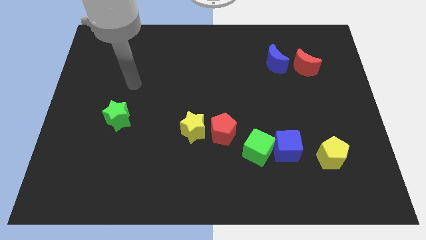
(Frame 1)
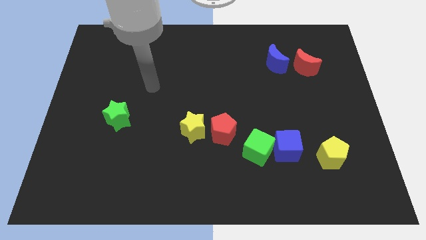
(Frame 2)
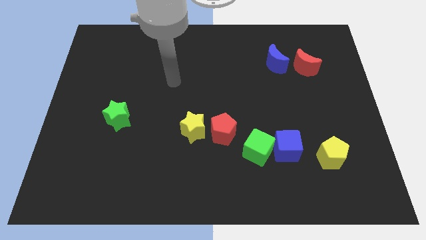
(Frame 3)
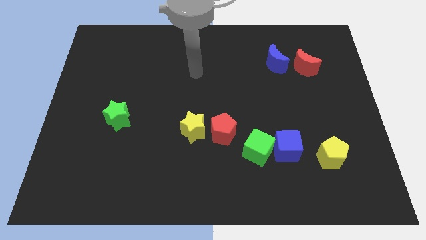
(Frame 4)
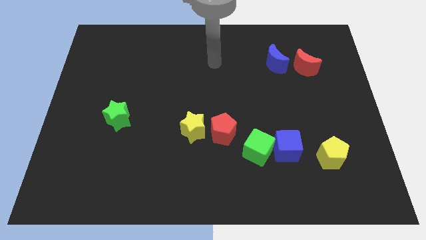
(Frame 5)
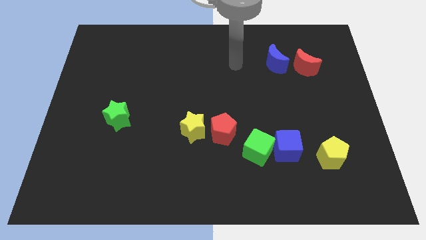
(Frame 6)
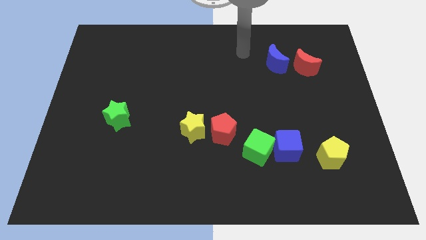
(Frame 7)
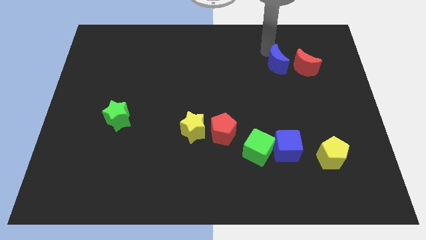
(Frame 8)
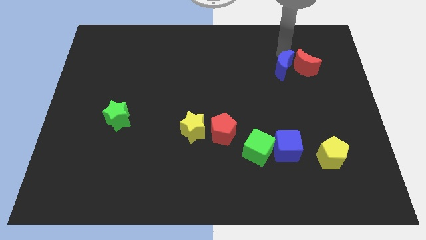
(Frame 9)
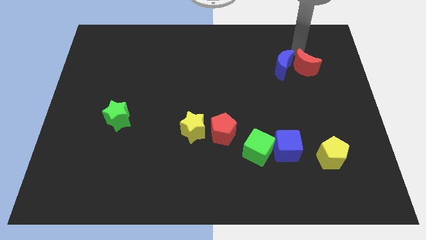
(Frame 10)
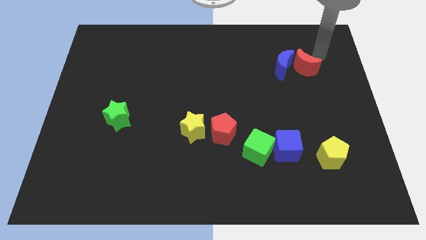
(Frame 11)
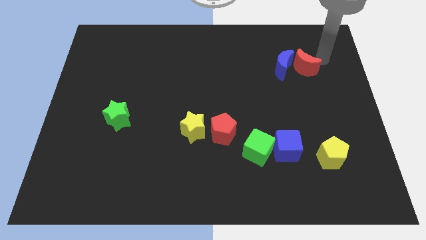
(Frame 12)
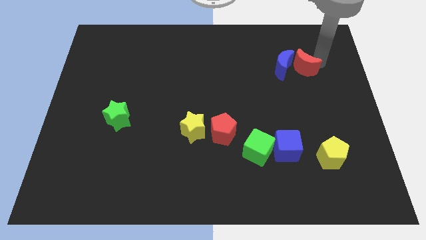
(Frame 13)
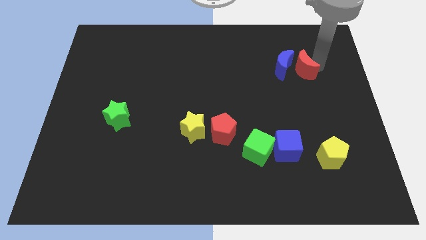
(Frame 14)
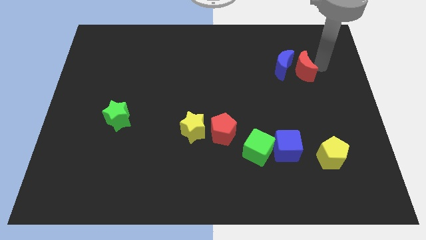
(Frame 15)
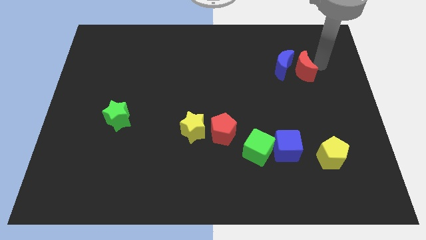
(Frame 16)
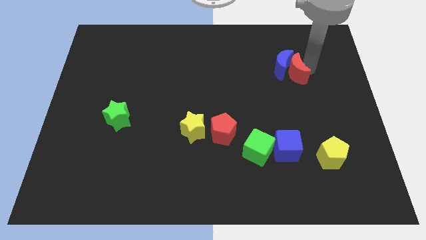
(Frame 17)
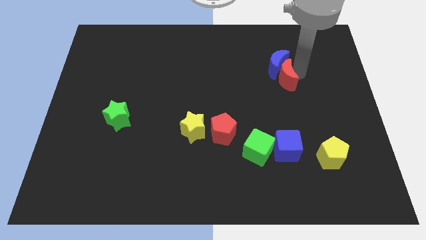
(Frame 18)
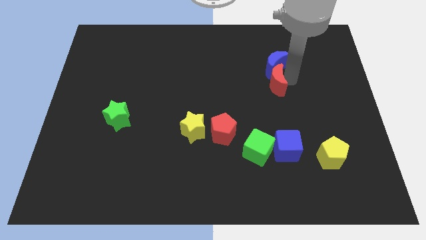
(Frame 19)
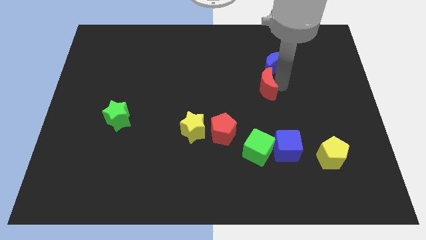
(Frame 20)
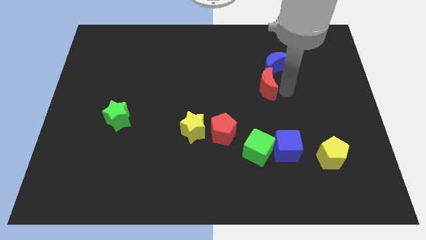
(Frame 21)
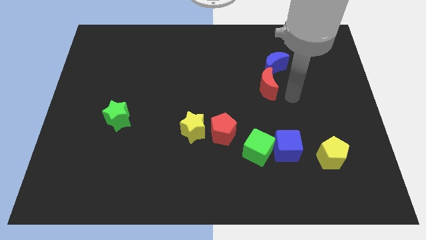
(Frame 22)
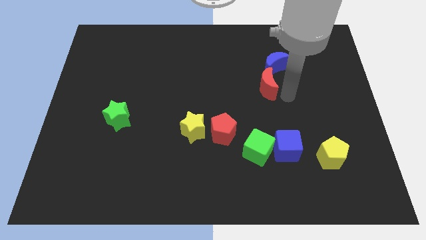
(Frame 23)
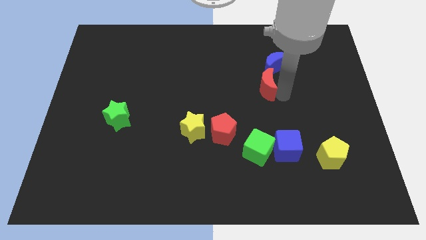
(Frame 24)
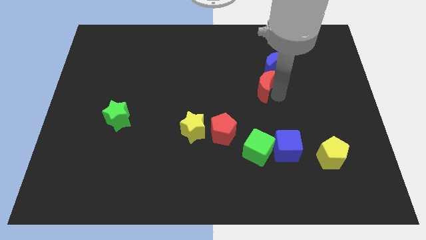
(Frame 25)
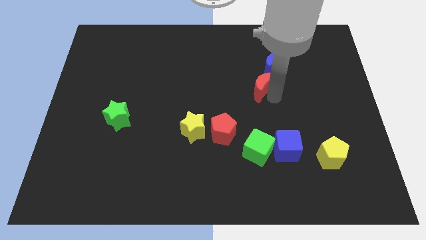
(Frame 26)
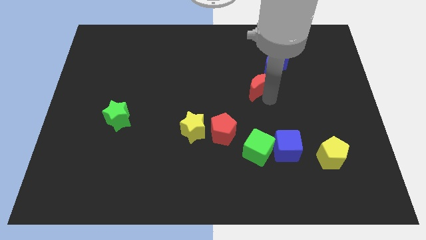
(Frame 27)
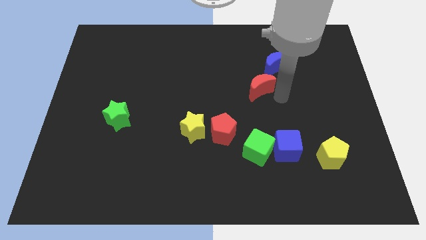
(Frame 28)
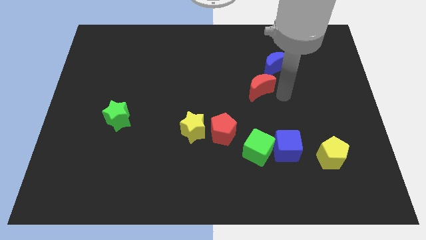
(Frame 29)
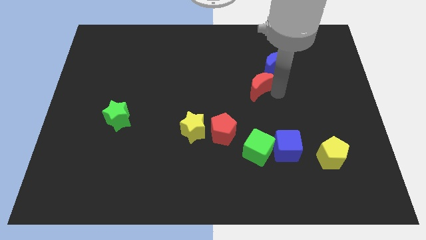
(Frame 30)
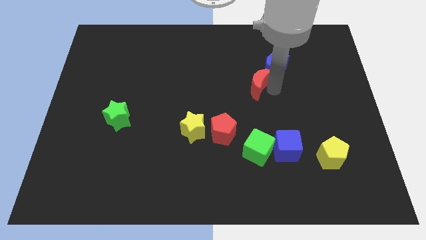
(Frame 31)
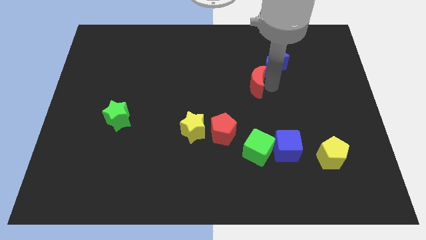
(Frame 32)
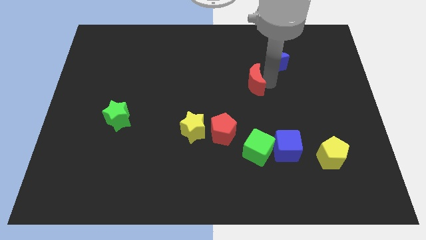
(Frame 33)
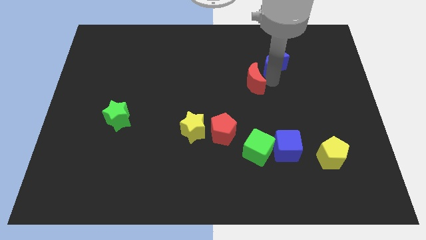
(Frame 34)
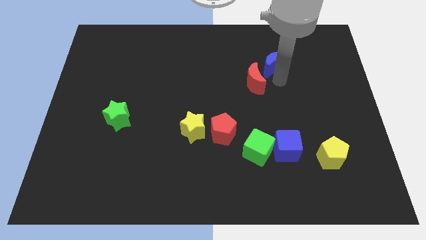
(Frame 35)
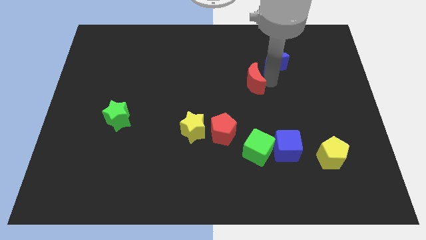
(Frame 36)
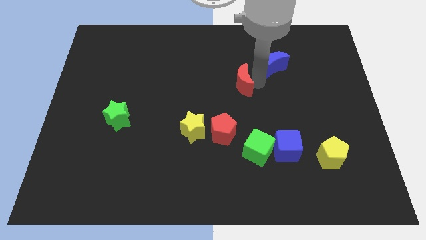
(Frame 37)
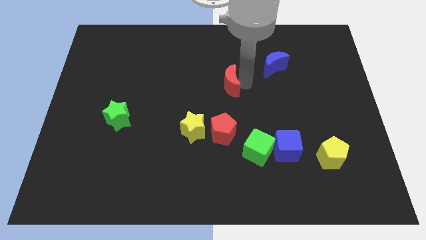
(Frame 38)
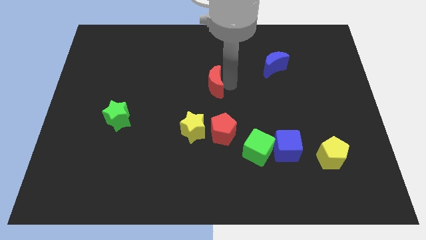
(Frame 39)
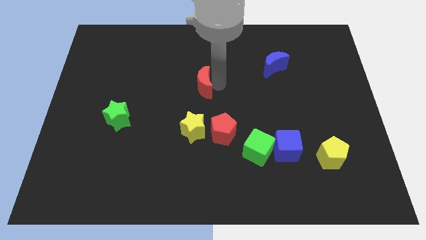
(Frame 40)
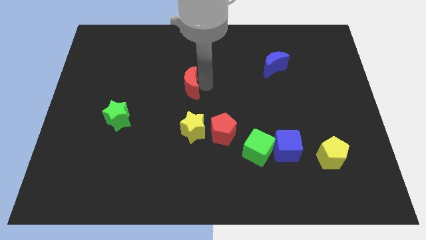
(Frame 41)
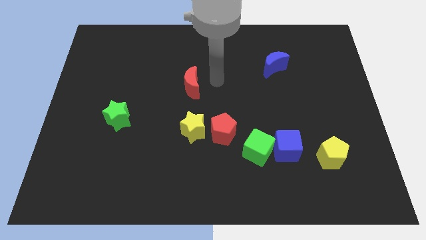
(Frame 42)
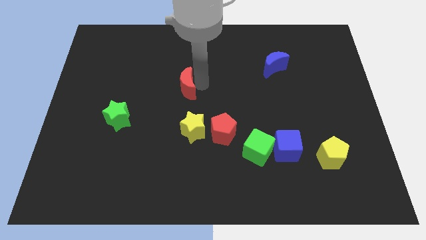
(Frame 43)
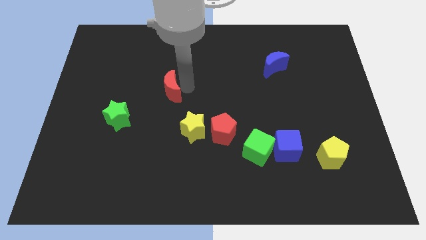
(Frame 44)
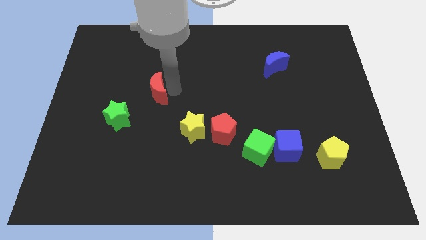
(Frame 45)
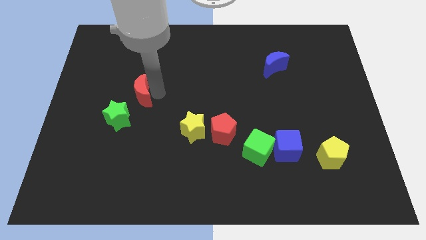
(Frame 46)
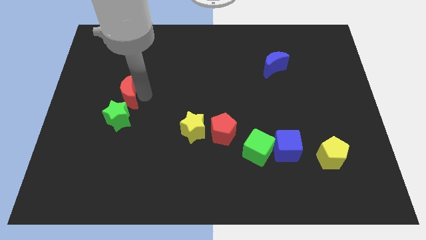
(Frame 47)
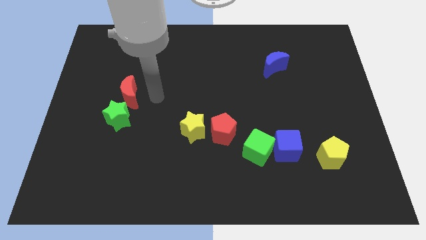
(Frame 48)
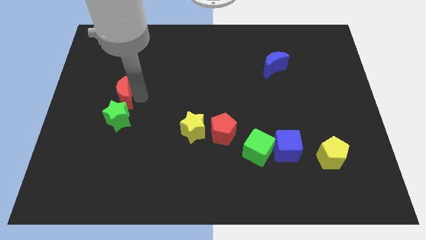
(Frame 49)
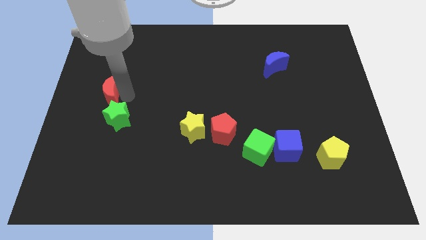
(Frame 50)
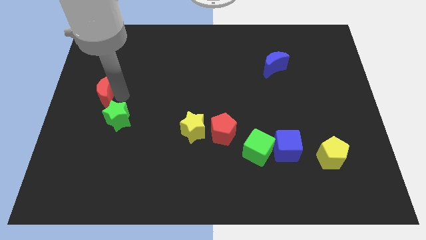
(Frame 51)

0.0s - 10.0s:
put the red moon to the left side of the board

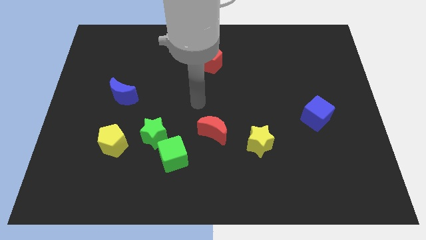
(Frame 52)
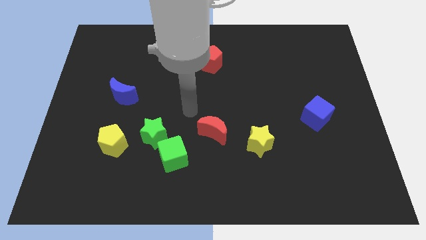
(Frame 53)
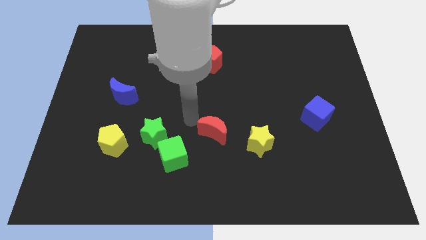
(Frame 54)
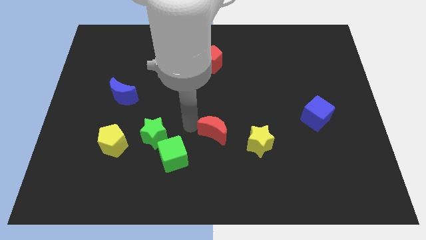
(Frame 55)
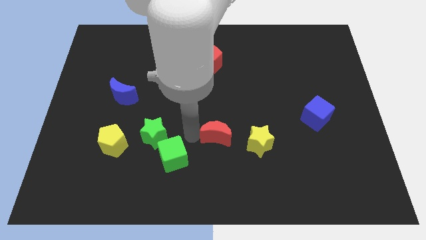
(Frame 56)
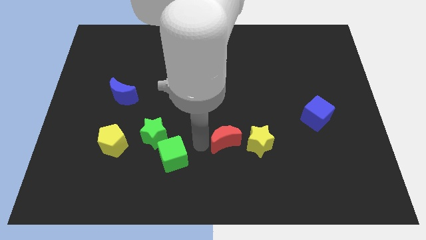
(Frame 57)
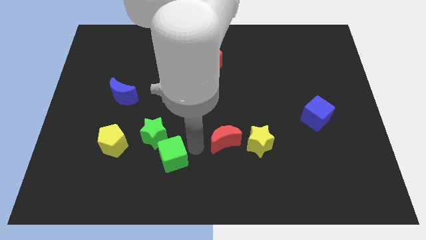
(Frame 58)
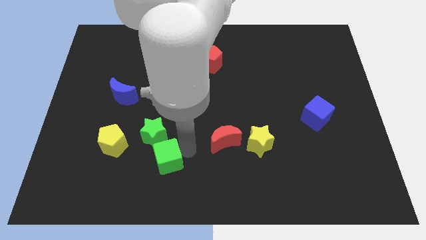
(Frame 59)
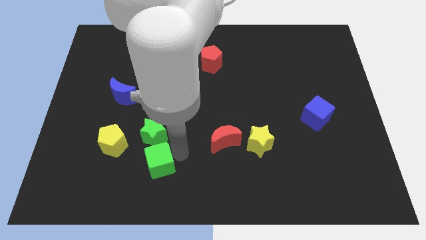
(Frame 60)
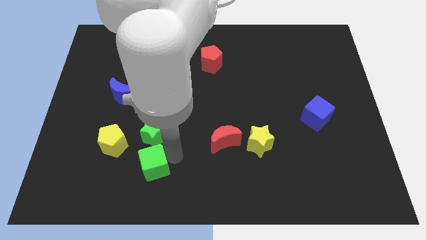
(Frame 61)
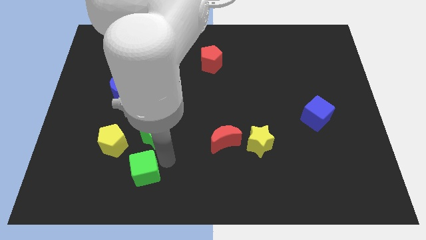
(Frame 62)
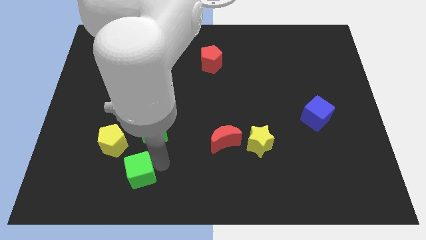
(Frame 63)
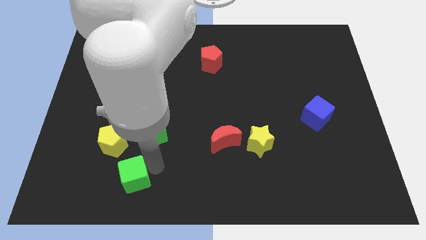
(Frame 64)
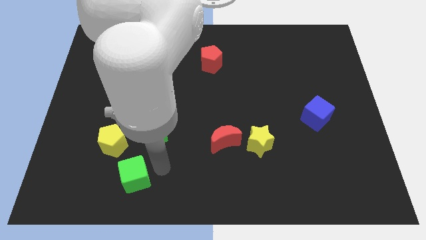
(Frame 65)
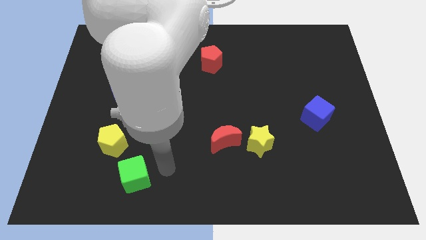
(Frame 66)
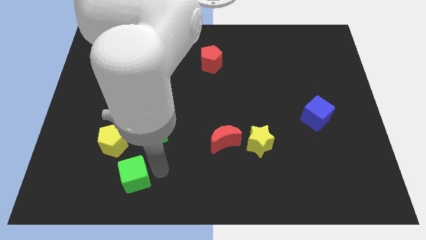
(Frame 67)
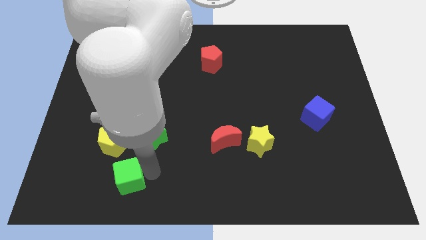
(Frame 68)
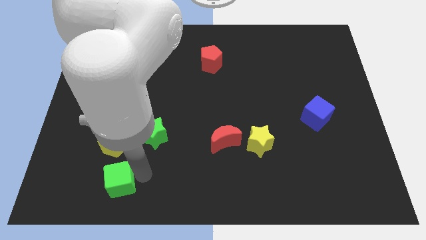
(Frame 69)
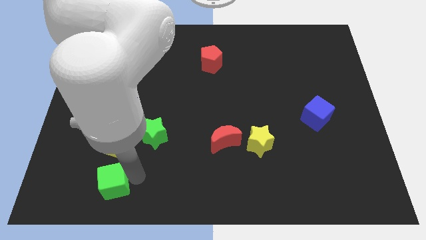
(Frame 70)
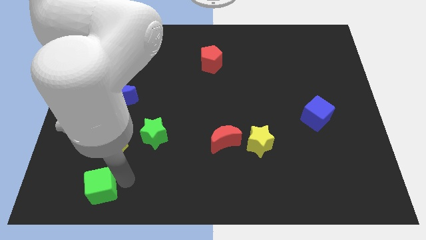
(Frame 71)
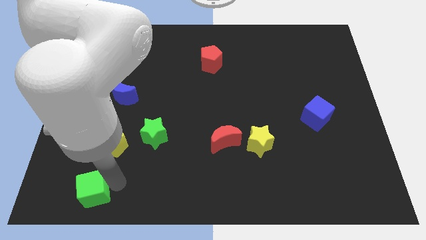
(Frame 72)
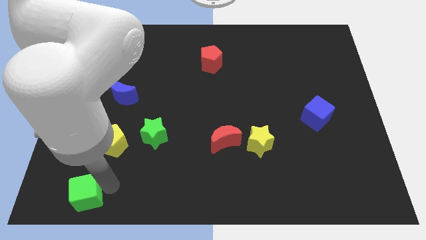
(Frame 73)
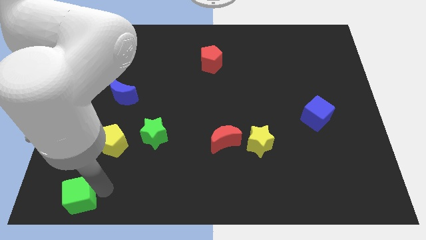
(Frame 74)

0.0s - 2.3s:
slide the green cube to the bottom left corner
